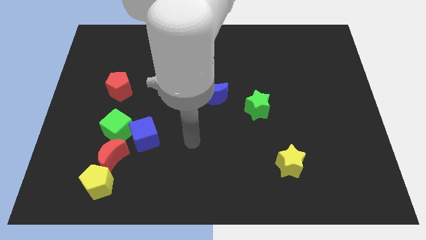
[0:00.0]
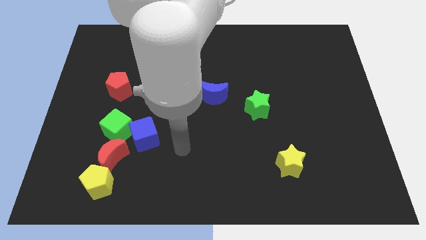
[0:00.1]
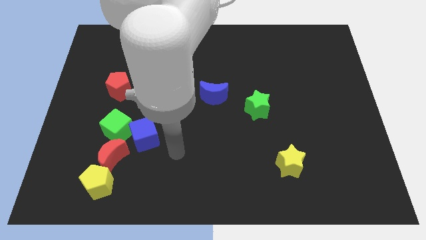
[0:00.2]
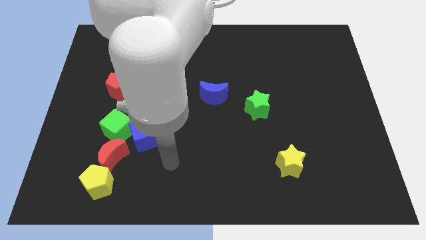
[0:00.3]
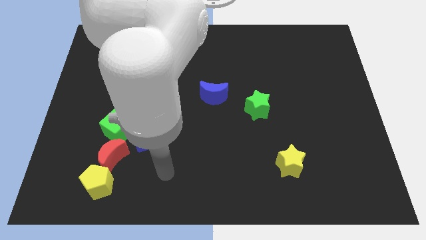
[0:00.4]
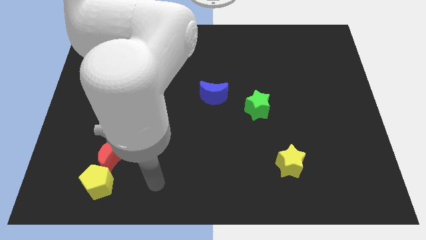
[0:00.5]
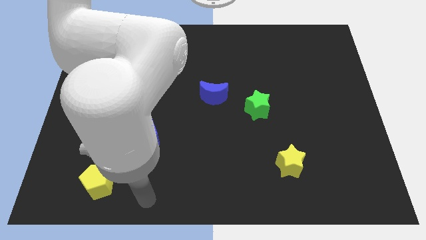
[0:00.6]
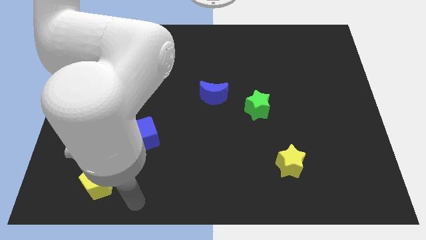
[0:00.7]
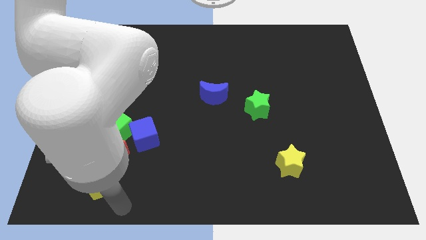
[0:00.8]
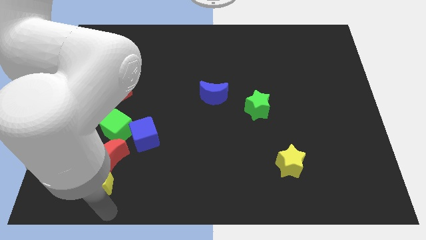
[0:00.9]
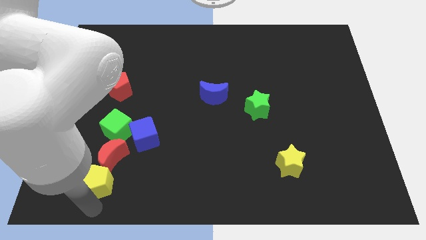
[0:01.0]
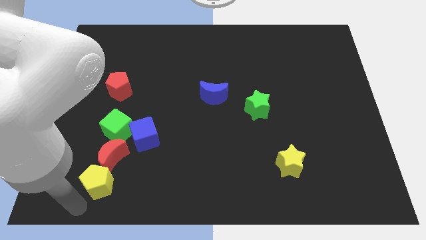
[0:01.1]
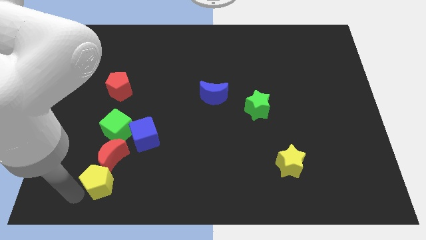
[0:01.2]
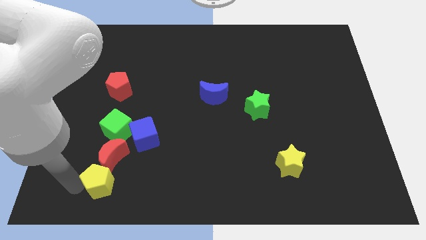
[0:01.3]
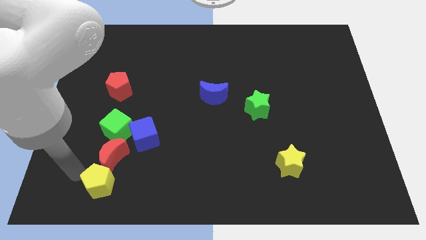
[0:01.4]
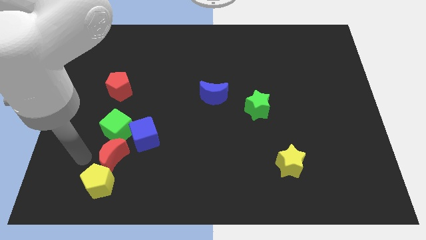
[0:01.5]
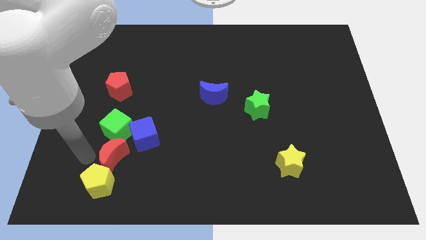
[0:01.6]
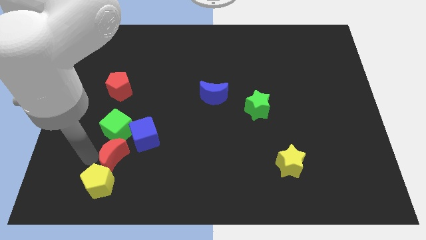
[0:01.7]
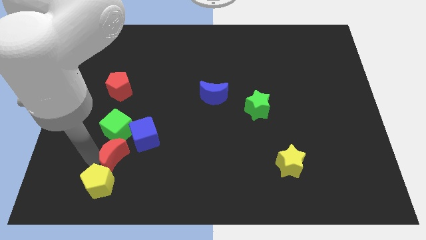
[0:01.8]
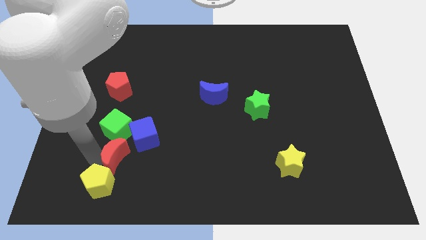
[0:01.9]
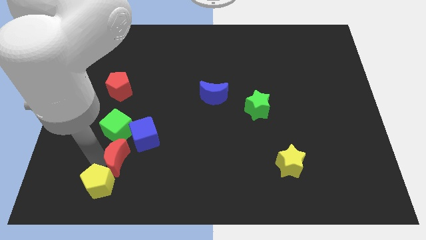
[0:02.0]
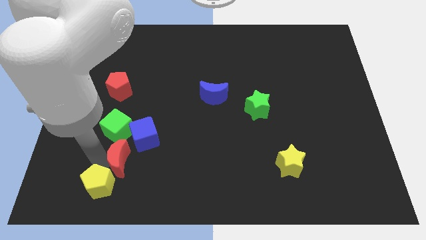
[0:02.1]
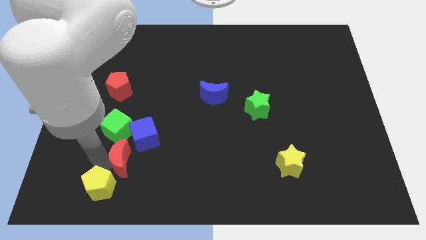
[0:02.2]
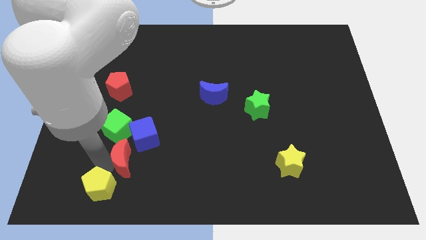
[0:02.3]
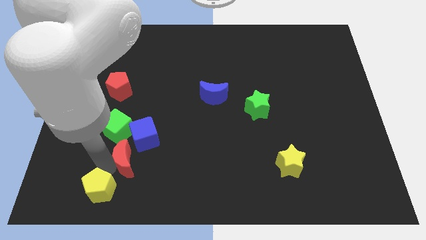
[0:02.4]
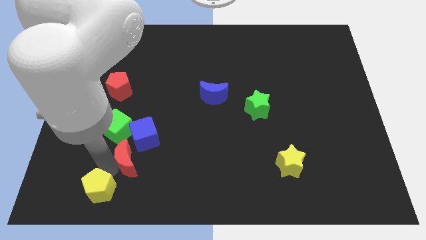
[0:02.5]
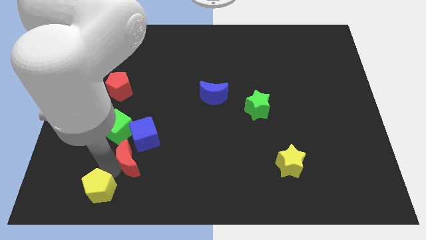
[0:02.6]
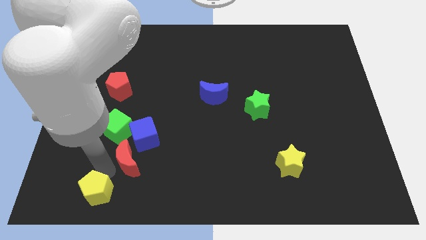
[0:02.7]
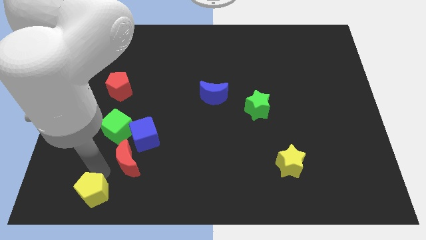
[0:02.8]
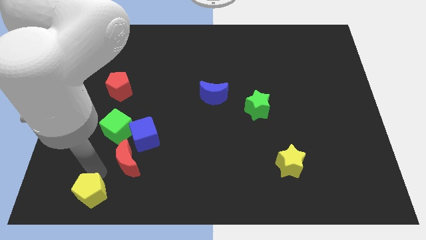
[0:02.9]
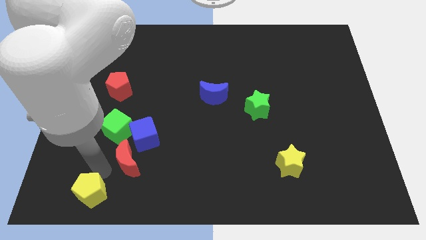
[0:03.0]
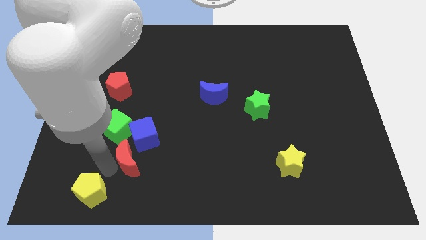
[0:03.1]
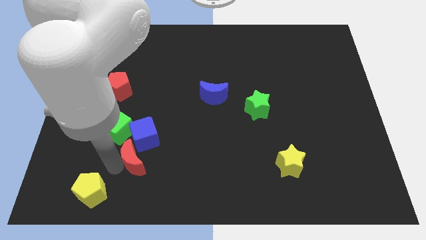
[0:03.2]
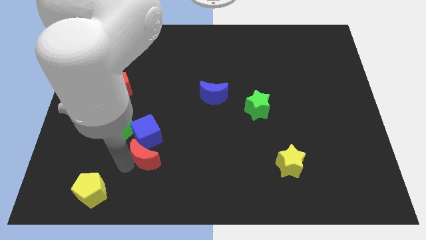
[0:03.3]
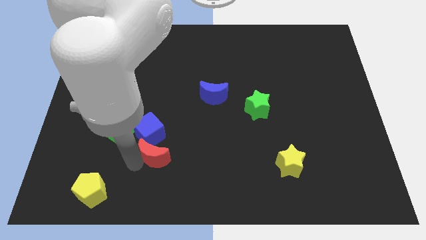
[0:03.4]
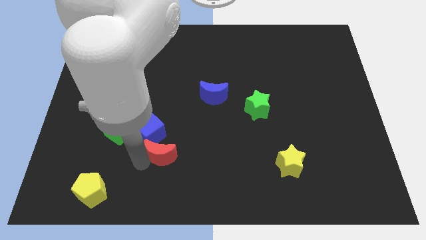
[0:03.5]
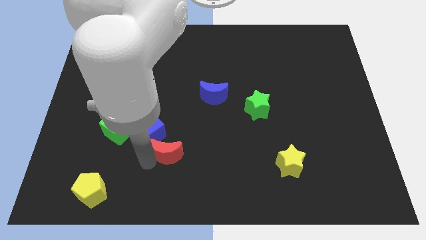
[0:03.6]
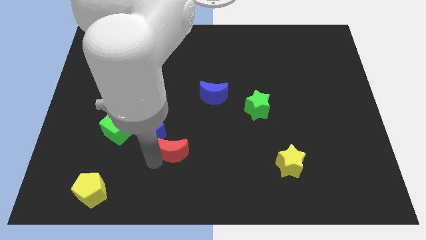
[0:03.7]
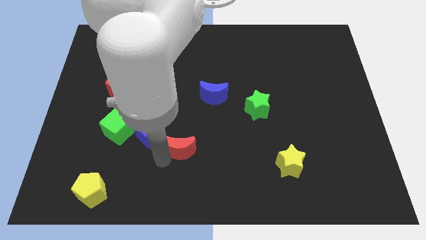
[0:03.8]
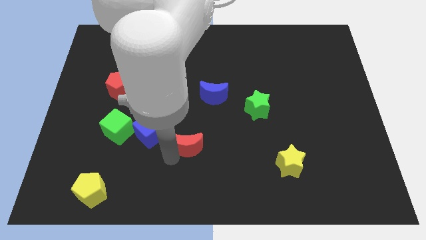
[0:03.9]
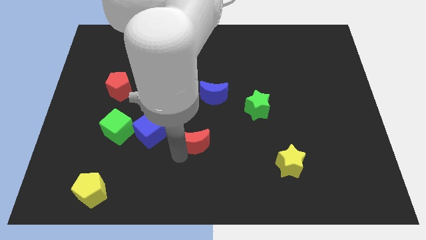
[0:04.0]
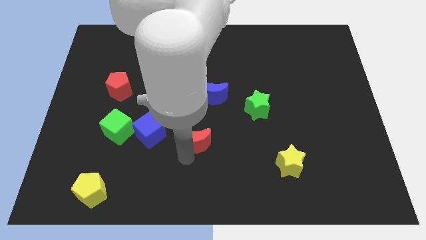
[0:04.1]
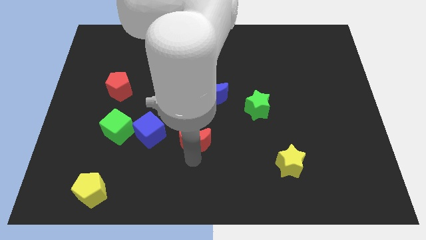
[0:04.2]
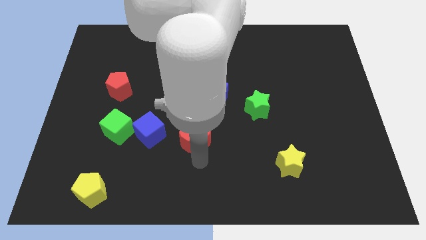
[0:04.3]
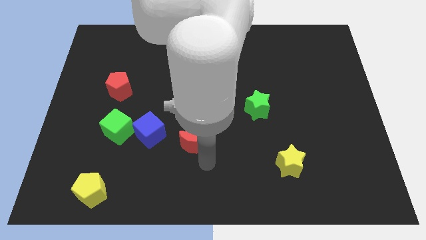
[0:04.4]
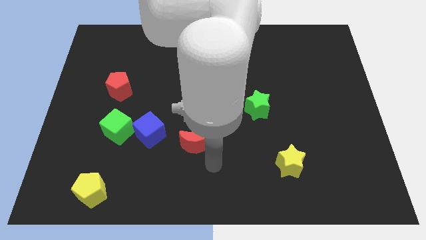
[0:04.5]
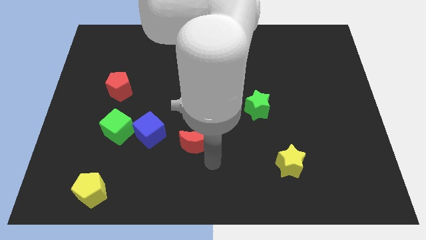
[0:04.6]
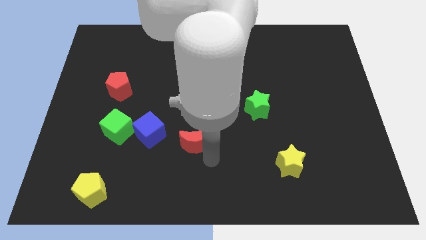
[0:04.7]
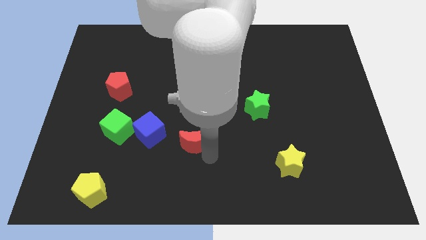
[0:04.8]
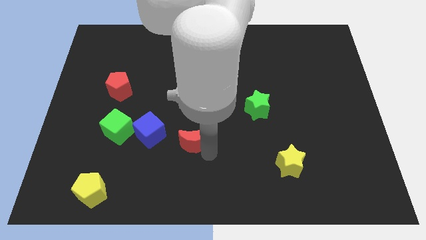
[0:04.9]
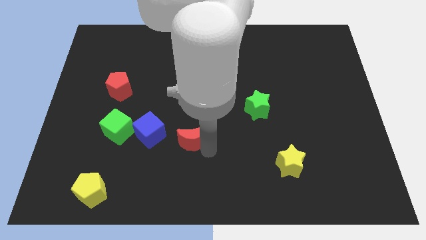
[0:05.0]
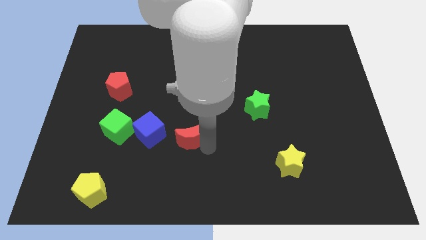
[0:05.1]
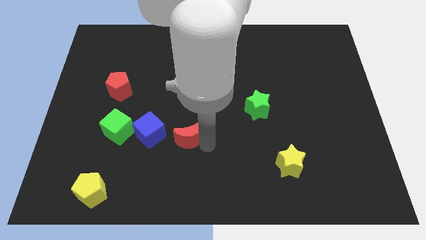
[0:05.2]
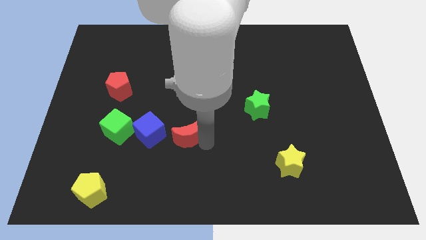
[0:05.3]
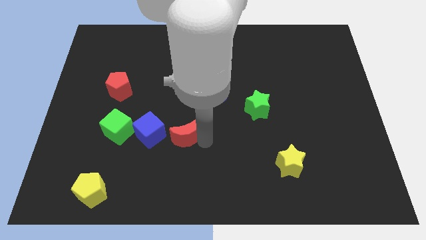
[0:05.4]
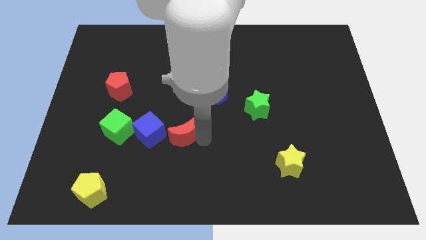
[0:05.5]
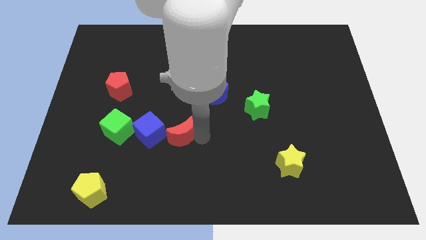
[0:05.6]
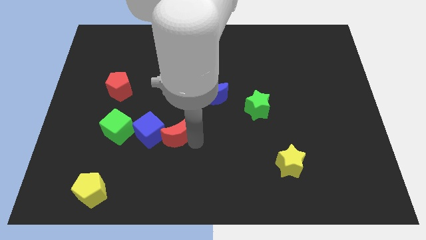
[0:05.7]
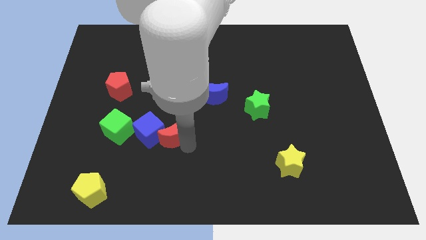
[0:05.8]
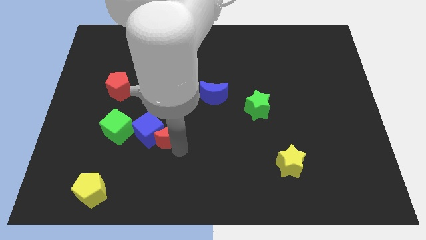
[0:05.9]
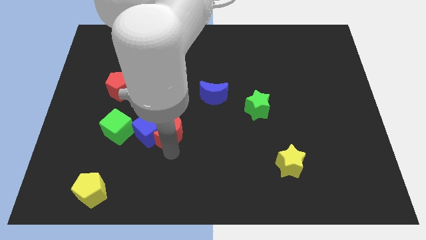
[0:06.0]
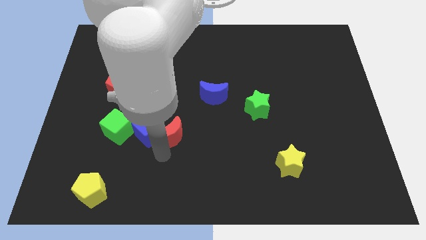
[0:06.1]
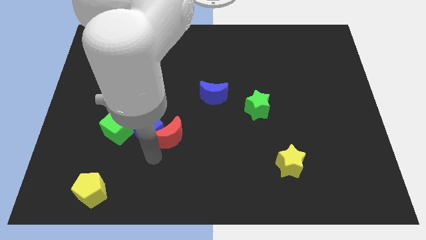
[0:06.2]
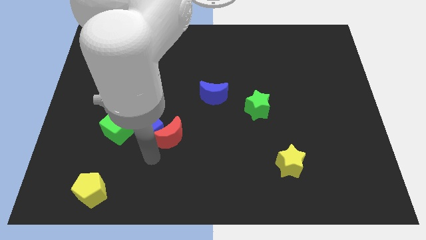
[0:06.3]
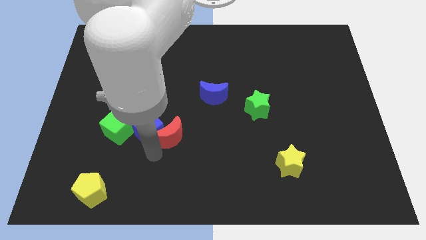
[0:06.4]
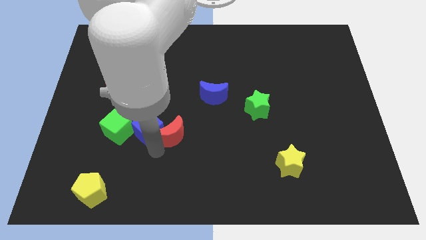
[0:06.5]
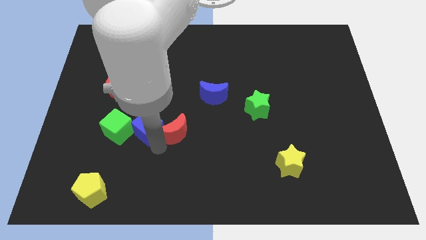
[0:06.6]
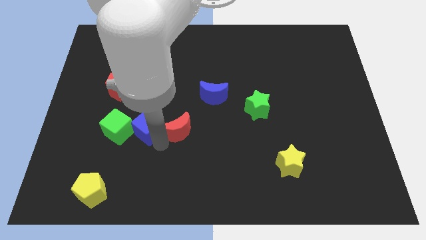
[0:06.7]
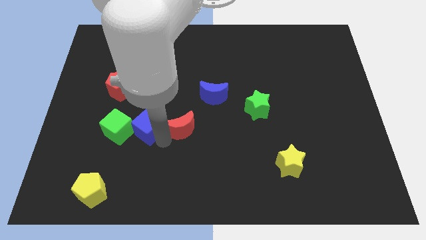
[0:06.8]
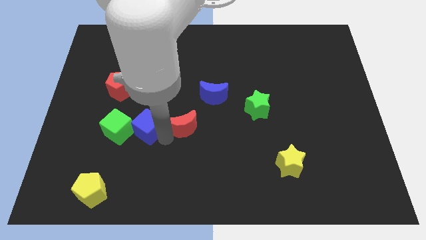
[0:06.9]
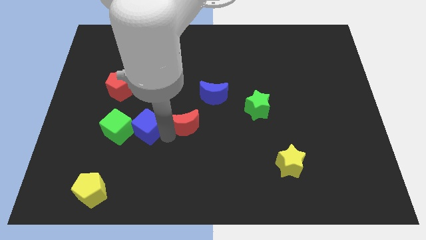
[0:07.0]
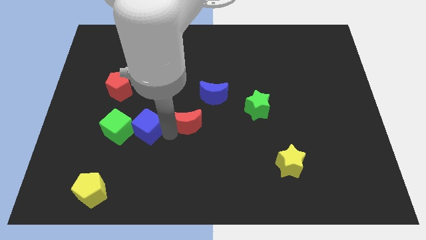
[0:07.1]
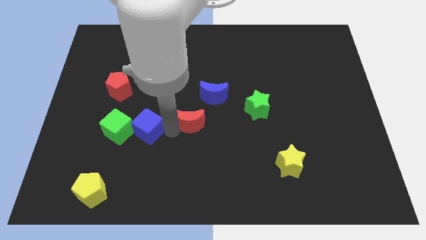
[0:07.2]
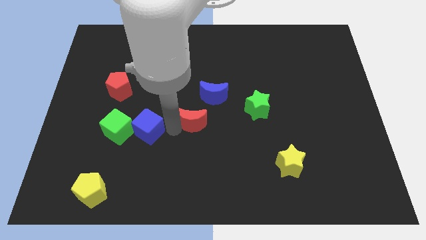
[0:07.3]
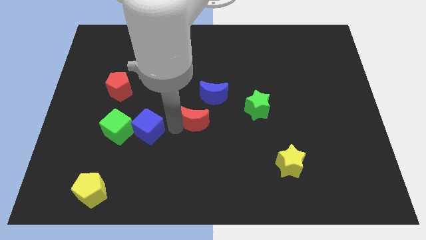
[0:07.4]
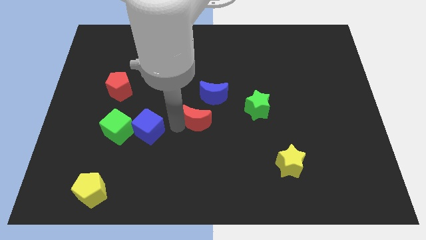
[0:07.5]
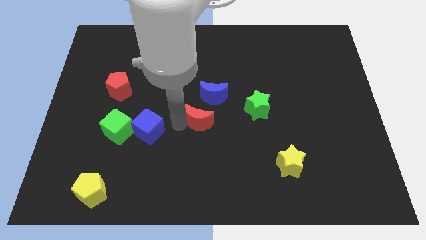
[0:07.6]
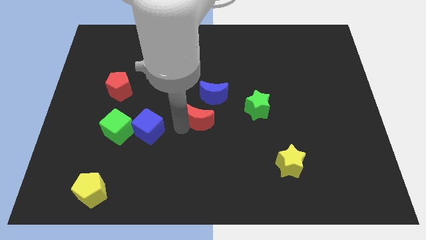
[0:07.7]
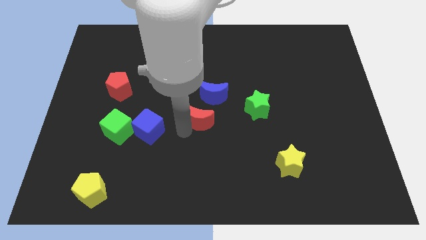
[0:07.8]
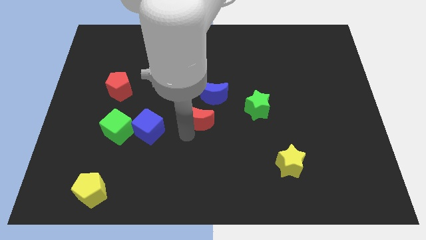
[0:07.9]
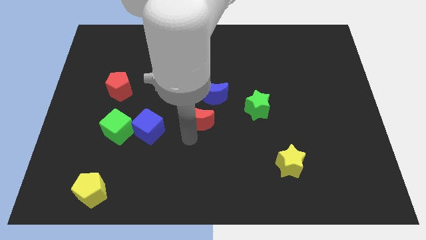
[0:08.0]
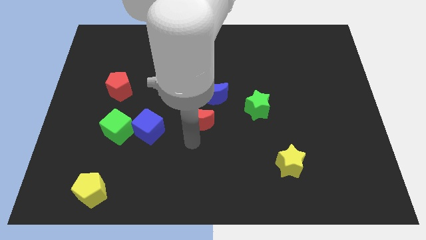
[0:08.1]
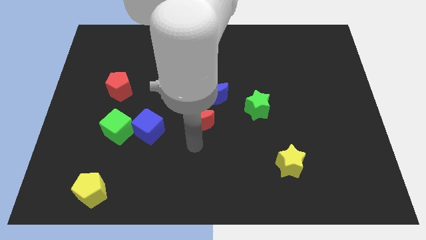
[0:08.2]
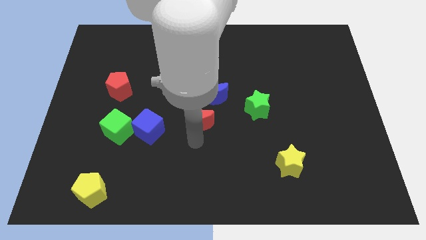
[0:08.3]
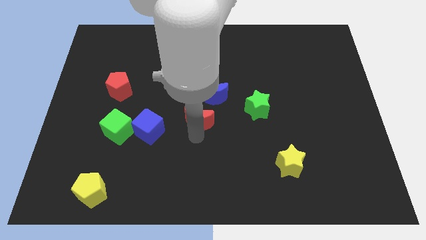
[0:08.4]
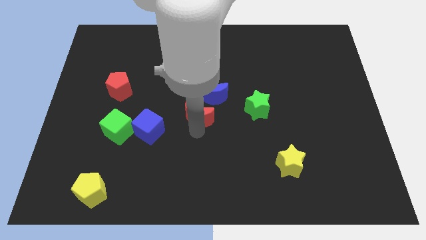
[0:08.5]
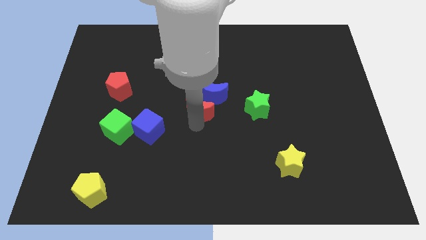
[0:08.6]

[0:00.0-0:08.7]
push the red moon next to the blue moon
